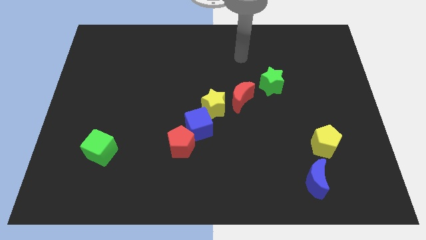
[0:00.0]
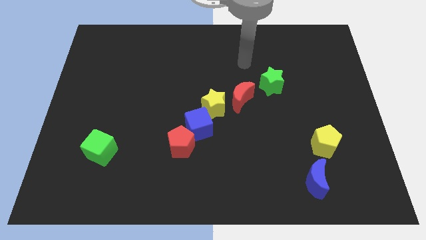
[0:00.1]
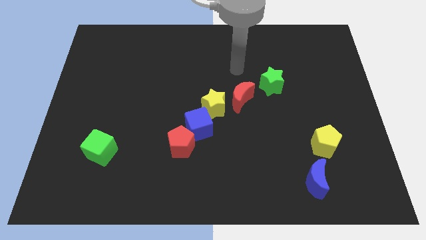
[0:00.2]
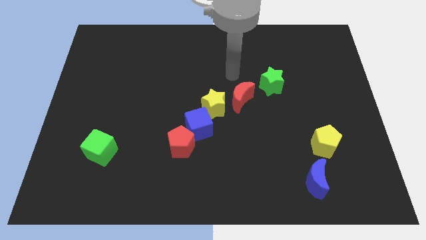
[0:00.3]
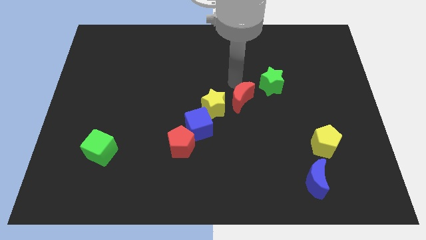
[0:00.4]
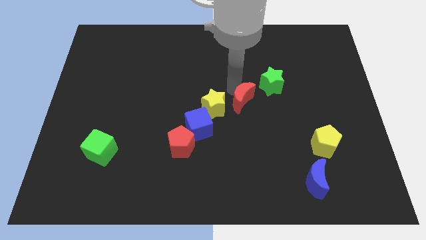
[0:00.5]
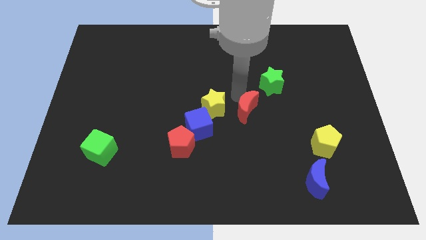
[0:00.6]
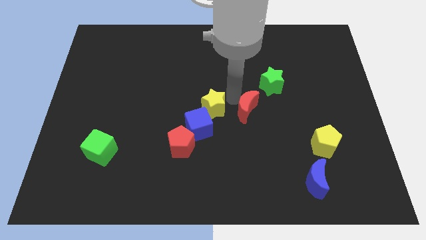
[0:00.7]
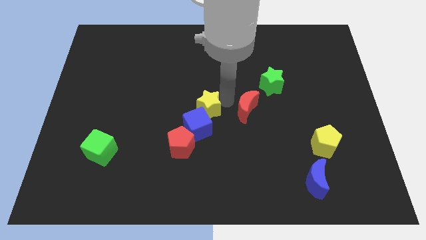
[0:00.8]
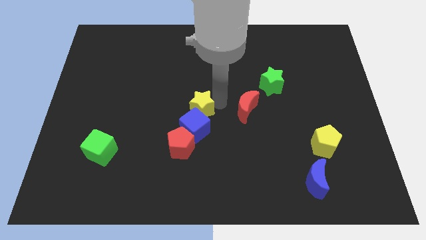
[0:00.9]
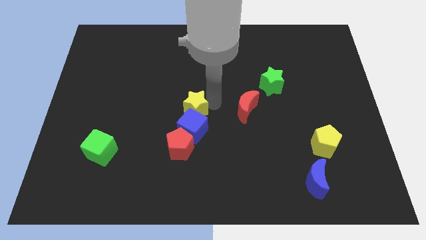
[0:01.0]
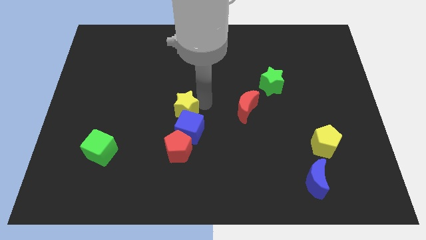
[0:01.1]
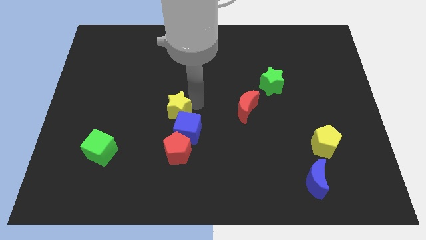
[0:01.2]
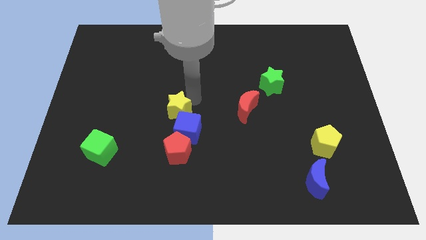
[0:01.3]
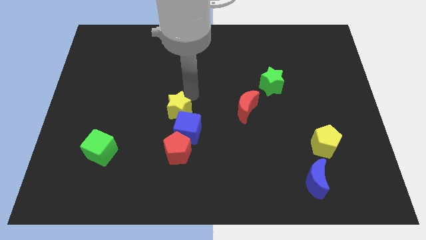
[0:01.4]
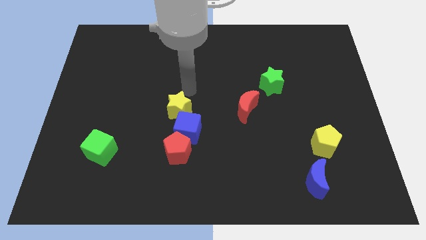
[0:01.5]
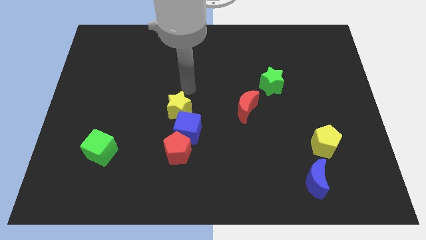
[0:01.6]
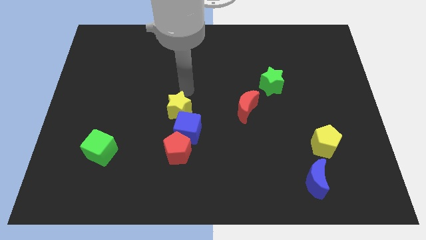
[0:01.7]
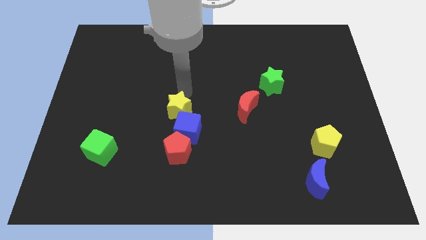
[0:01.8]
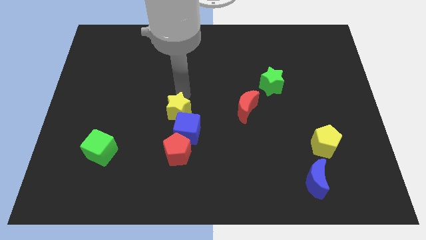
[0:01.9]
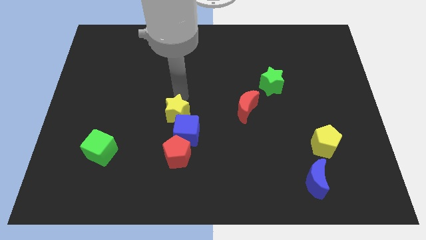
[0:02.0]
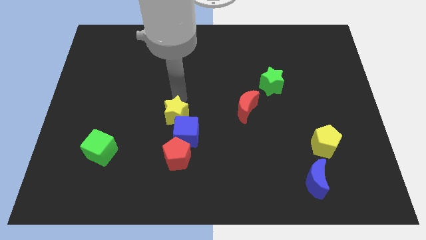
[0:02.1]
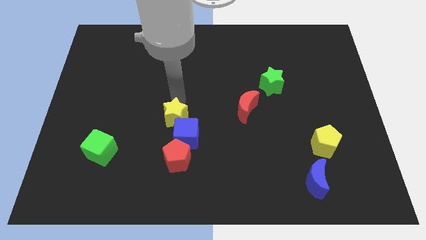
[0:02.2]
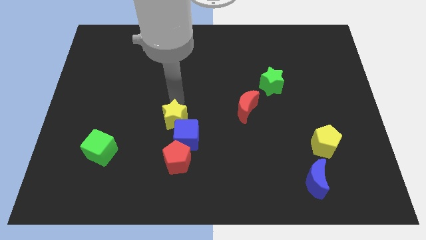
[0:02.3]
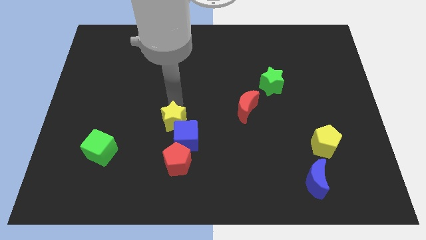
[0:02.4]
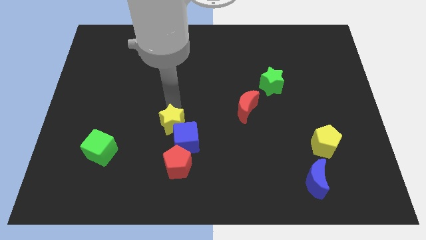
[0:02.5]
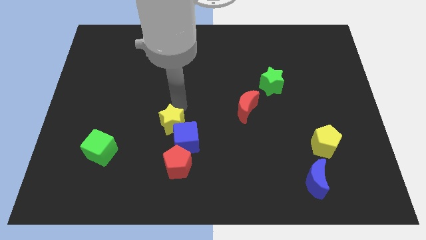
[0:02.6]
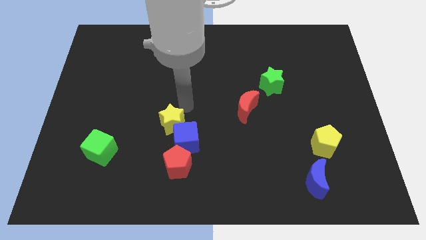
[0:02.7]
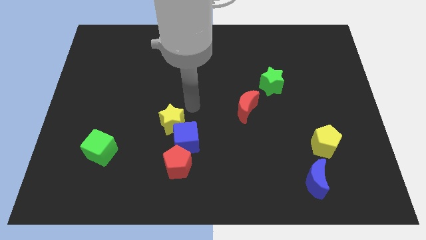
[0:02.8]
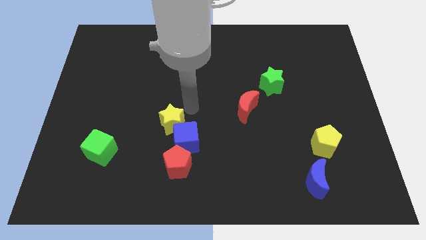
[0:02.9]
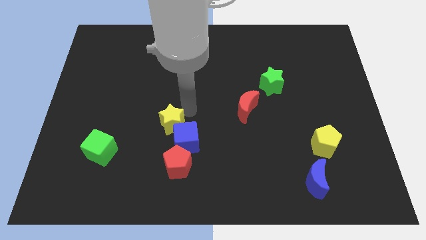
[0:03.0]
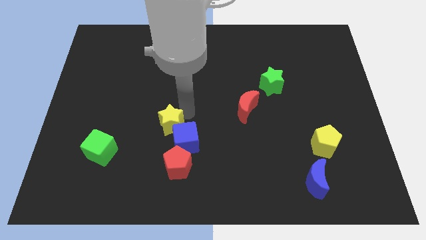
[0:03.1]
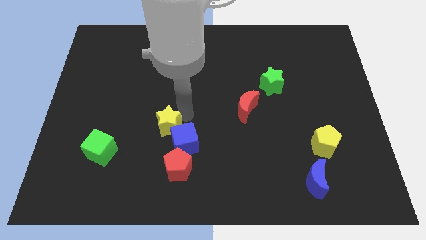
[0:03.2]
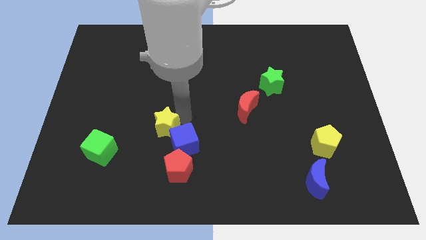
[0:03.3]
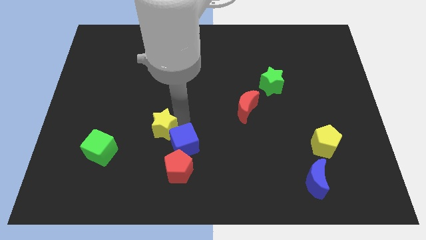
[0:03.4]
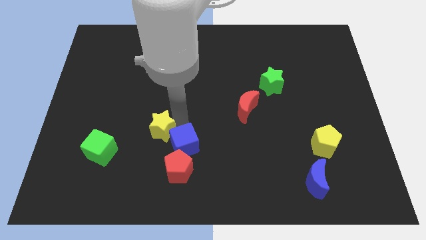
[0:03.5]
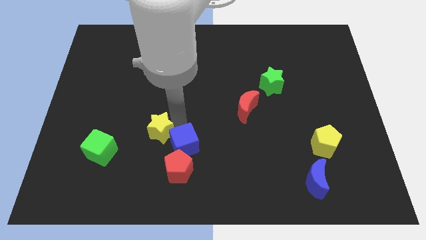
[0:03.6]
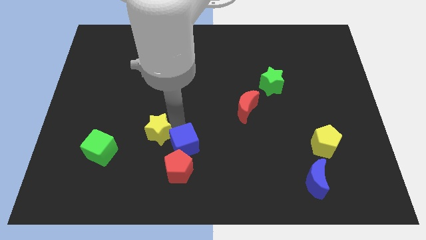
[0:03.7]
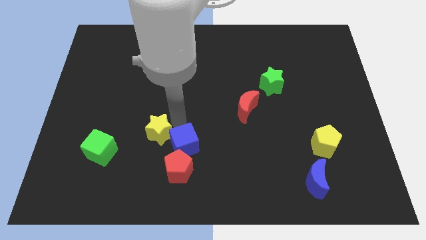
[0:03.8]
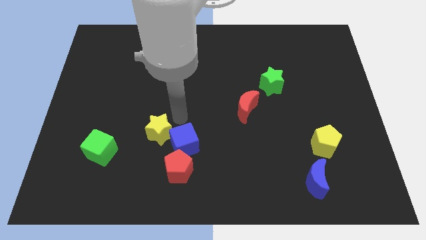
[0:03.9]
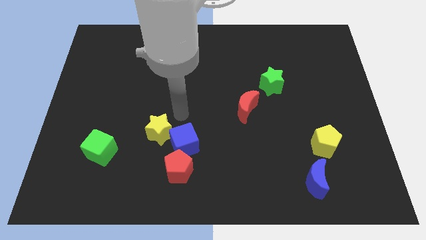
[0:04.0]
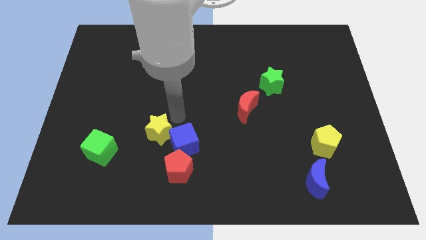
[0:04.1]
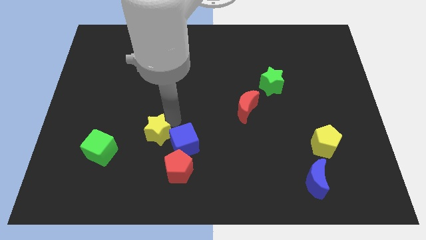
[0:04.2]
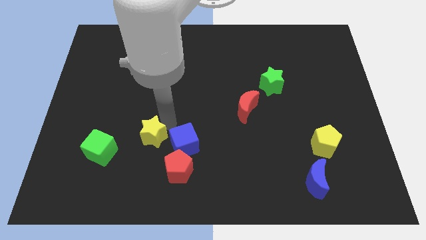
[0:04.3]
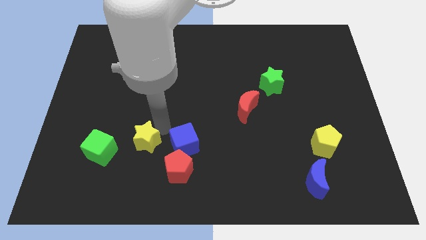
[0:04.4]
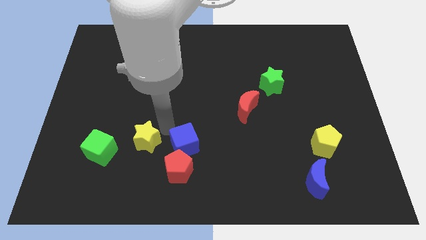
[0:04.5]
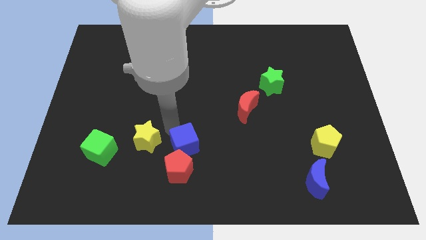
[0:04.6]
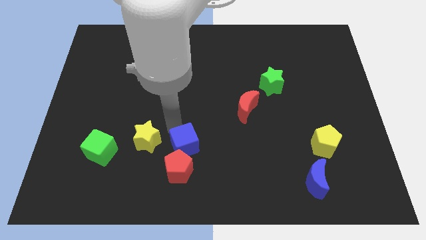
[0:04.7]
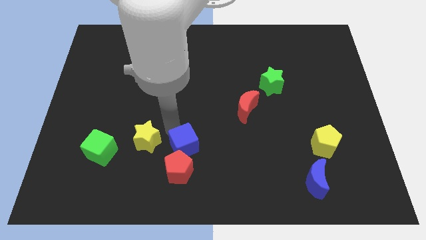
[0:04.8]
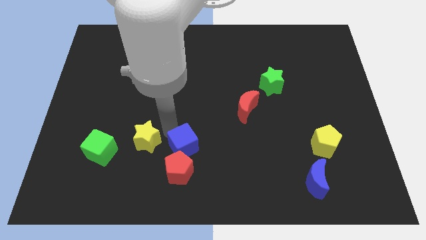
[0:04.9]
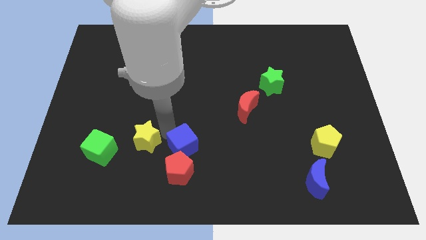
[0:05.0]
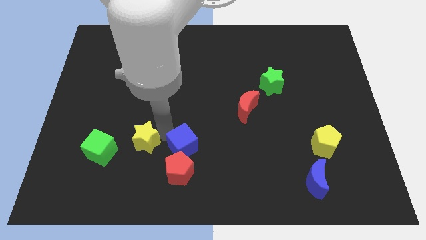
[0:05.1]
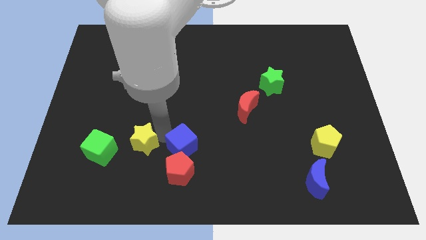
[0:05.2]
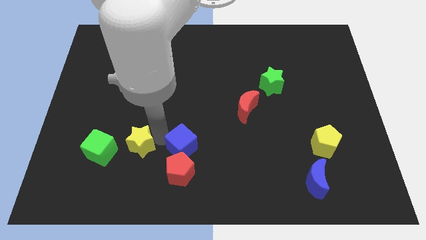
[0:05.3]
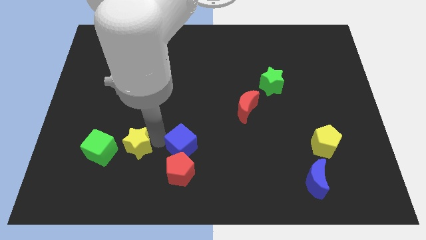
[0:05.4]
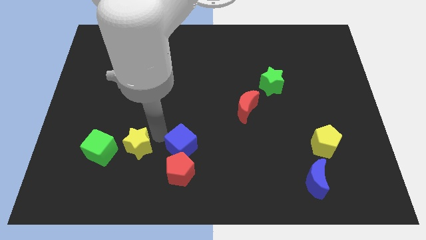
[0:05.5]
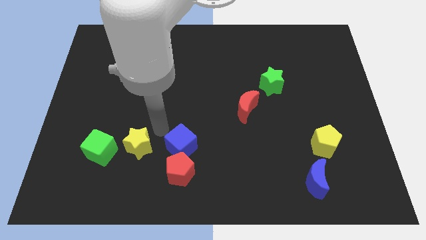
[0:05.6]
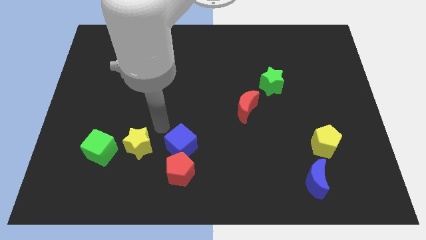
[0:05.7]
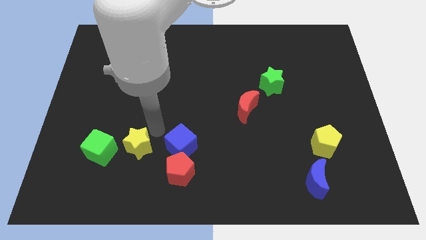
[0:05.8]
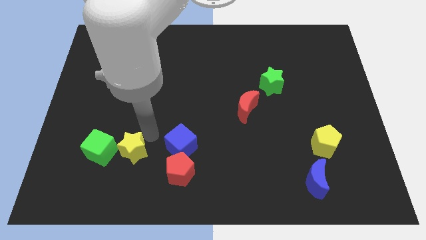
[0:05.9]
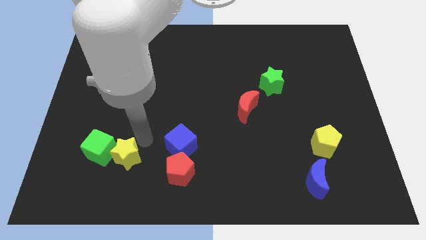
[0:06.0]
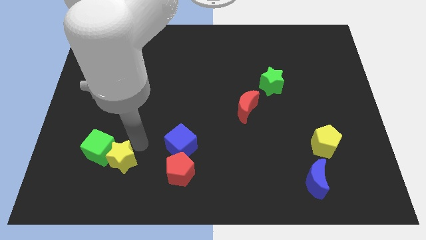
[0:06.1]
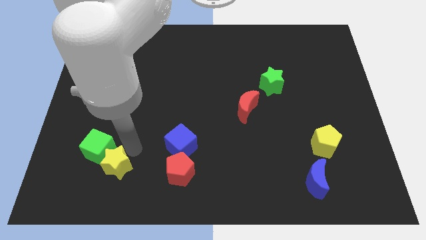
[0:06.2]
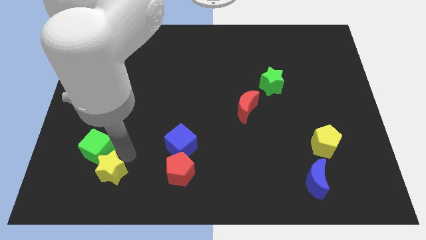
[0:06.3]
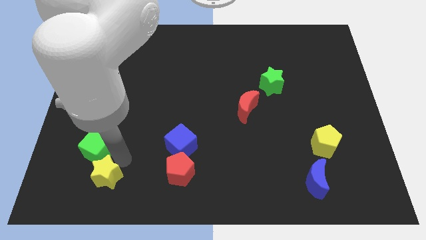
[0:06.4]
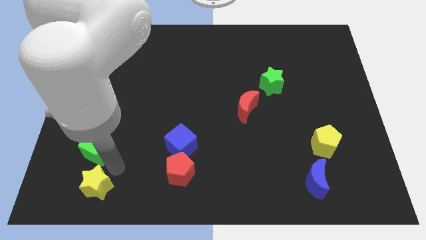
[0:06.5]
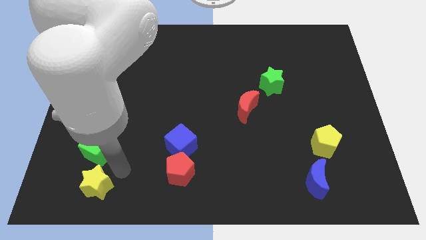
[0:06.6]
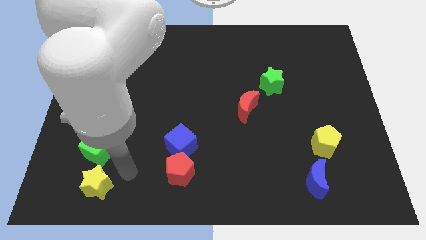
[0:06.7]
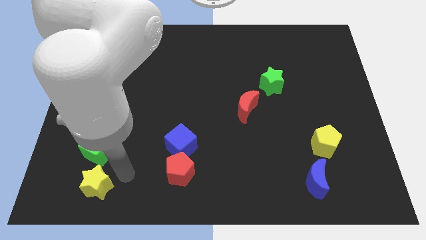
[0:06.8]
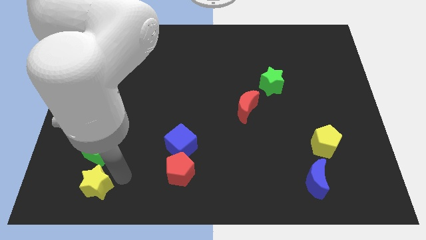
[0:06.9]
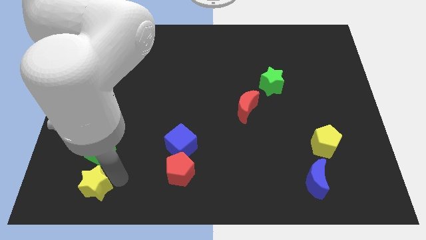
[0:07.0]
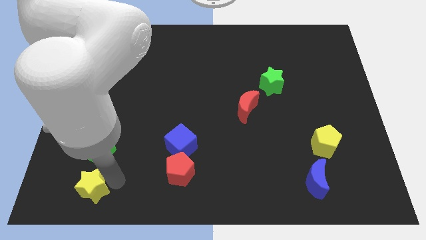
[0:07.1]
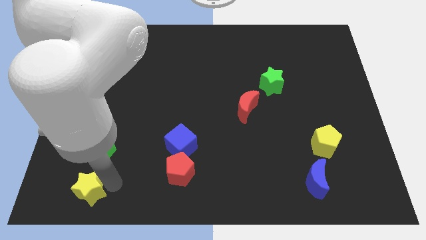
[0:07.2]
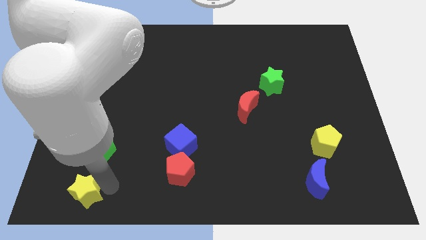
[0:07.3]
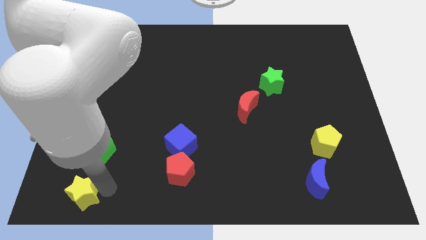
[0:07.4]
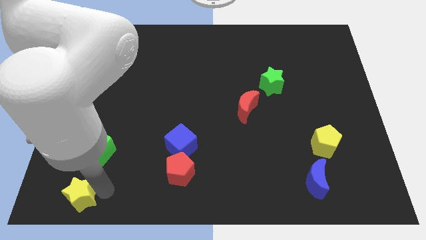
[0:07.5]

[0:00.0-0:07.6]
push the yellow star to the bottom left corner
